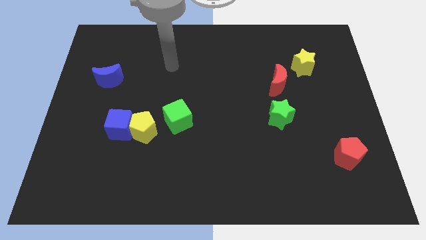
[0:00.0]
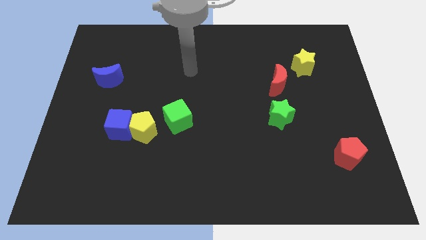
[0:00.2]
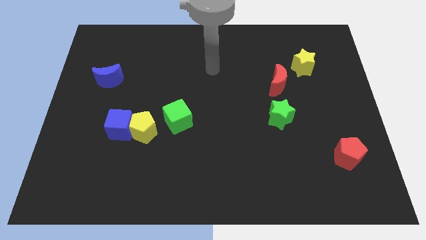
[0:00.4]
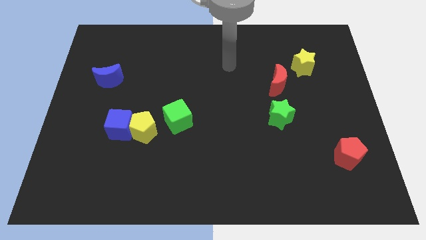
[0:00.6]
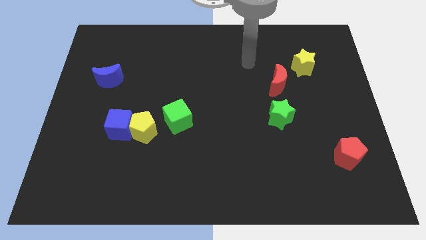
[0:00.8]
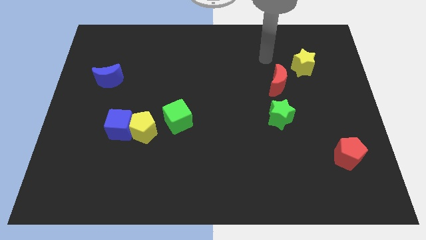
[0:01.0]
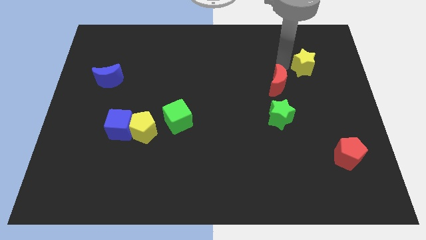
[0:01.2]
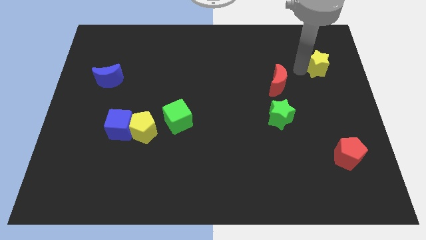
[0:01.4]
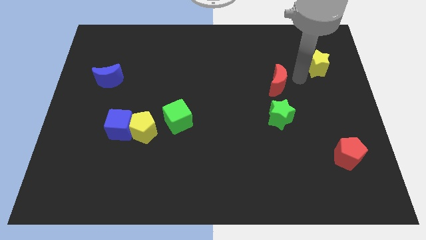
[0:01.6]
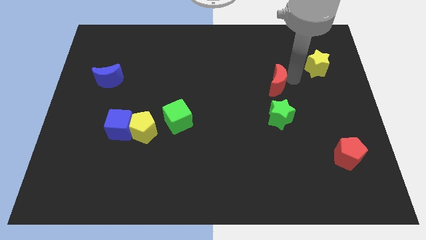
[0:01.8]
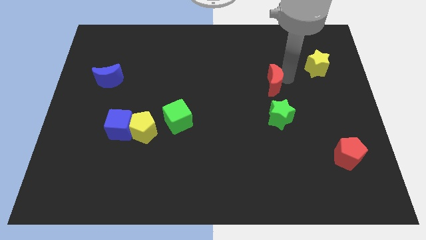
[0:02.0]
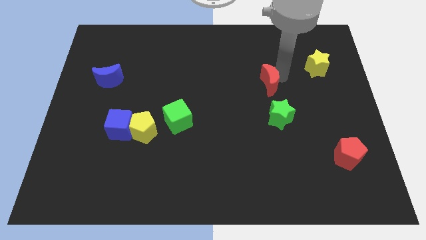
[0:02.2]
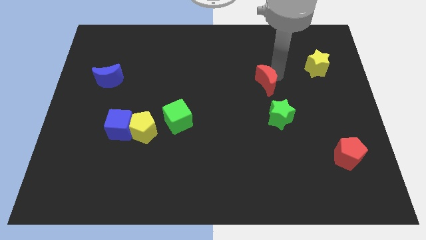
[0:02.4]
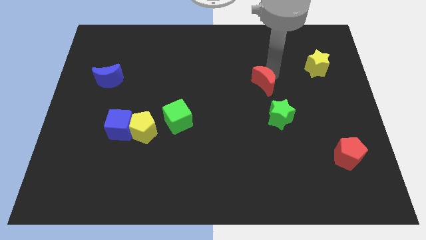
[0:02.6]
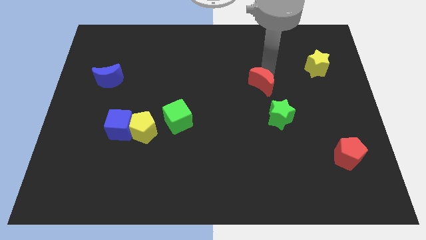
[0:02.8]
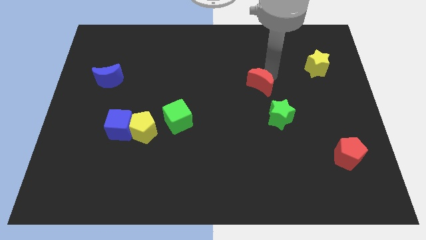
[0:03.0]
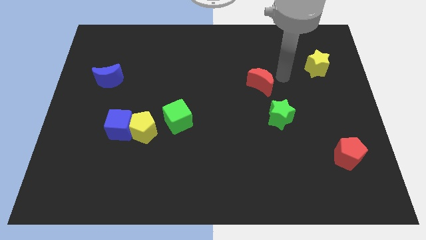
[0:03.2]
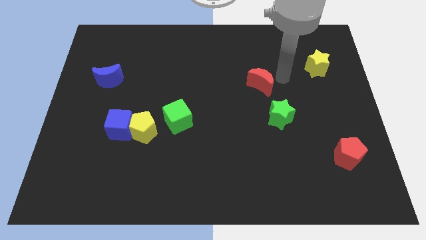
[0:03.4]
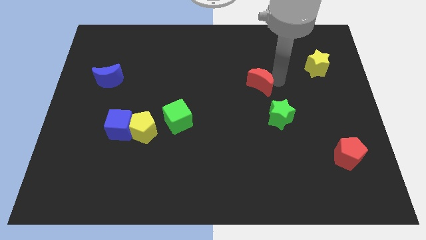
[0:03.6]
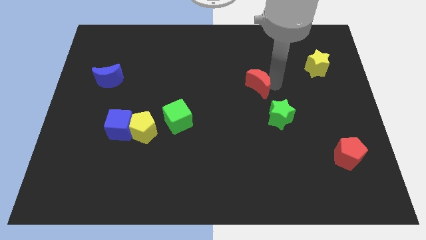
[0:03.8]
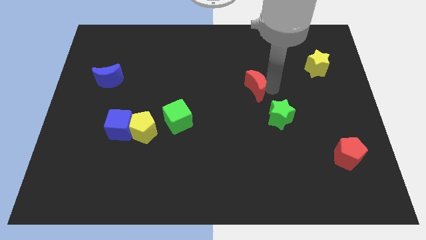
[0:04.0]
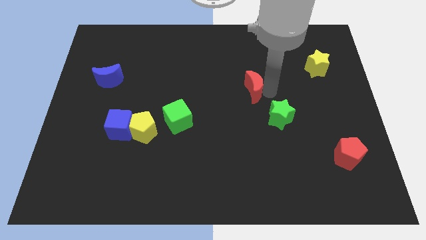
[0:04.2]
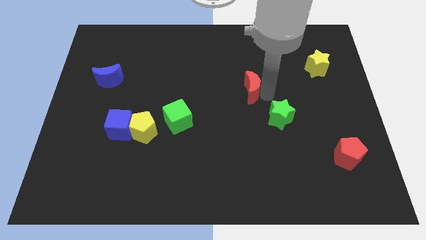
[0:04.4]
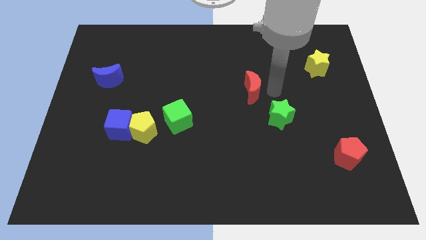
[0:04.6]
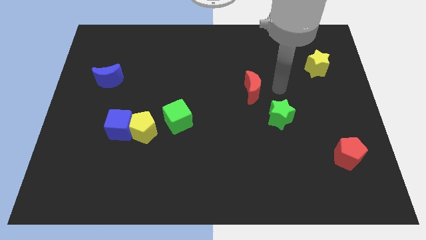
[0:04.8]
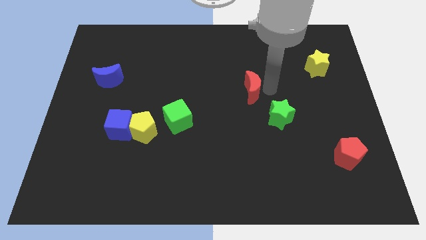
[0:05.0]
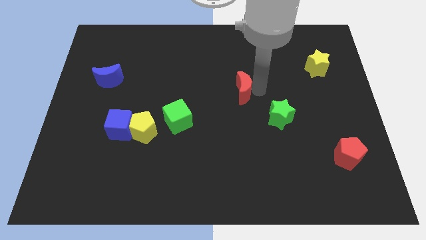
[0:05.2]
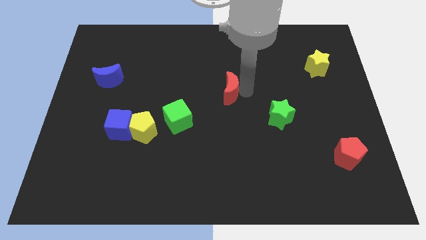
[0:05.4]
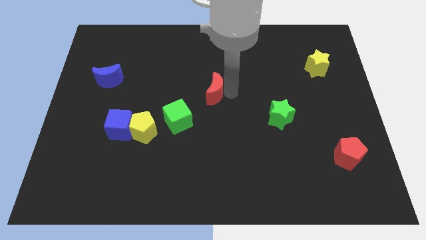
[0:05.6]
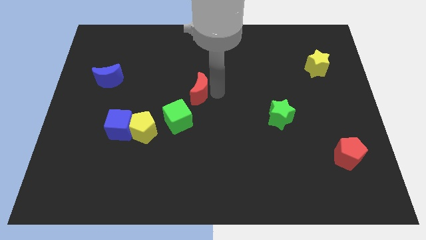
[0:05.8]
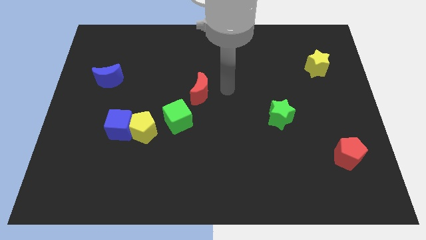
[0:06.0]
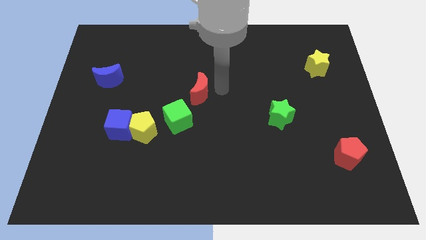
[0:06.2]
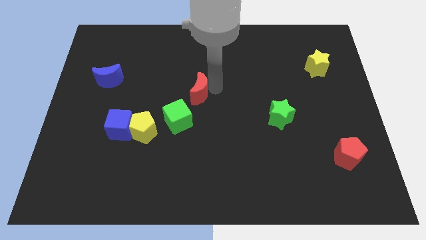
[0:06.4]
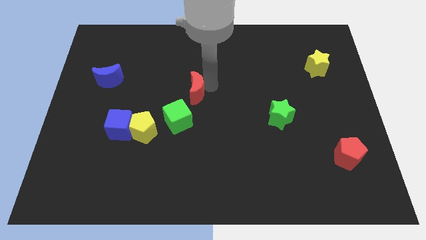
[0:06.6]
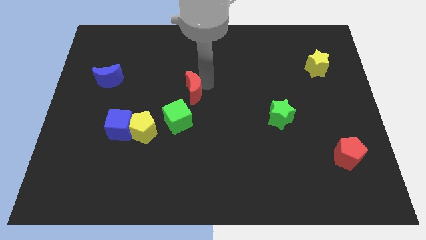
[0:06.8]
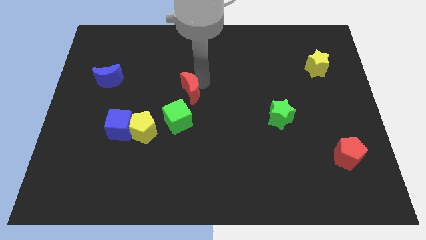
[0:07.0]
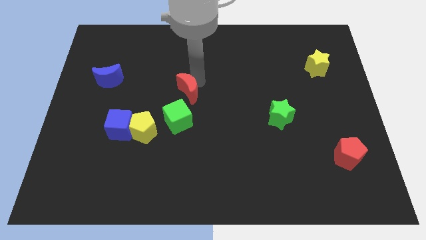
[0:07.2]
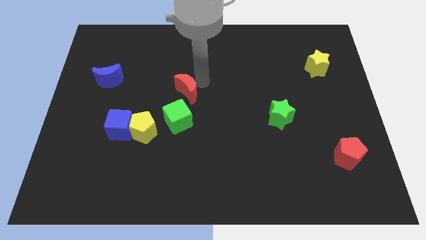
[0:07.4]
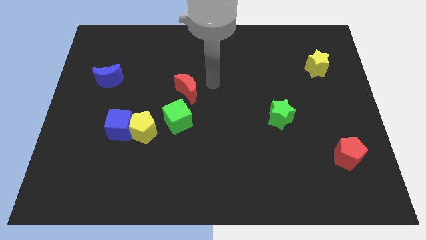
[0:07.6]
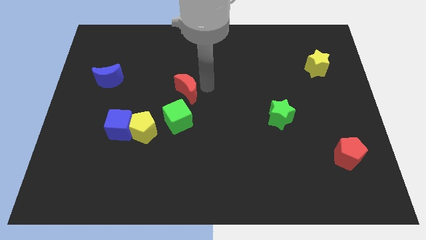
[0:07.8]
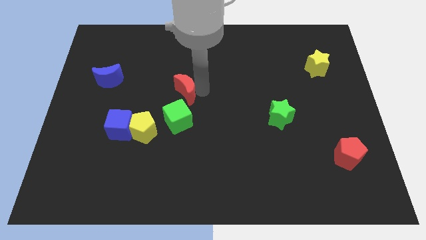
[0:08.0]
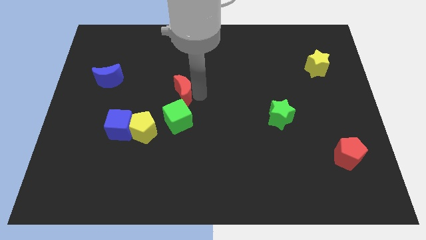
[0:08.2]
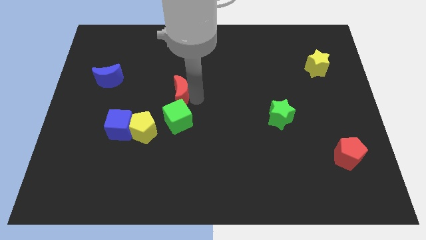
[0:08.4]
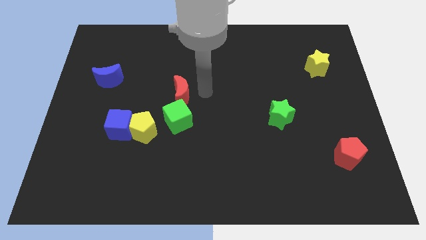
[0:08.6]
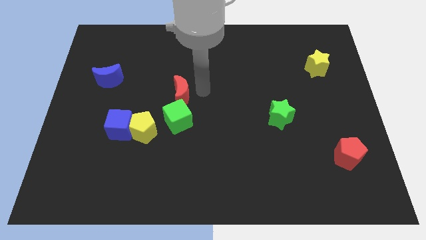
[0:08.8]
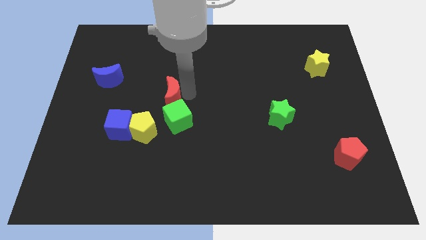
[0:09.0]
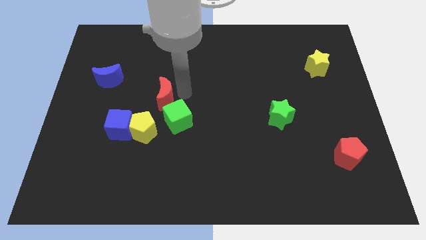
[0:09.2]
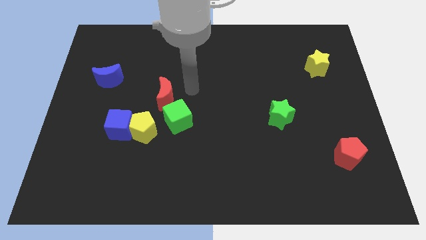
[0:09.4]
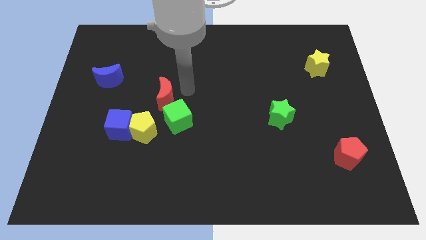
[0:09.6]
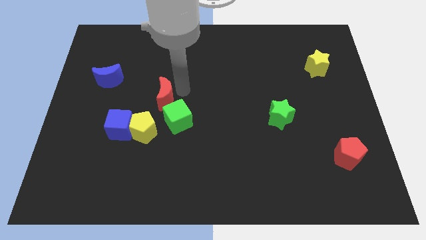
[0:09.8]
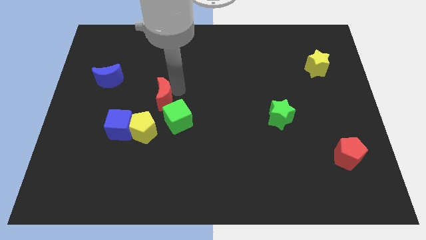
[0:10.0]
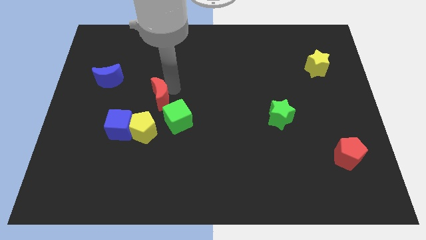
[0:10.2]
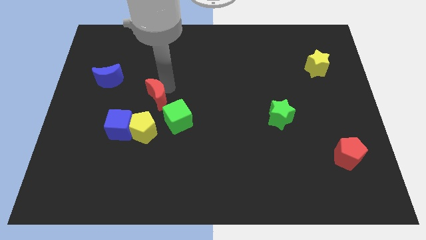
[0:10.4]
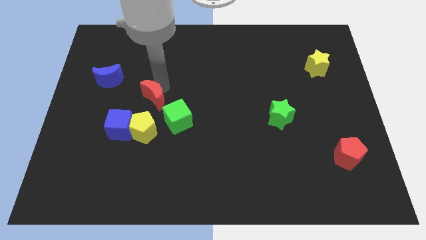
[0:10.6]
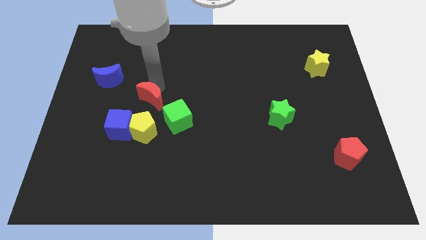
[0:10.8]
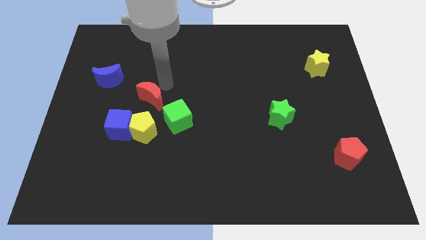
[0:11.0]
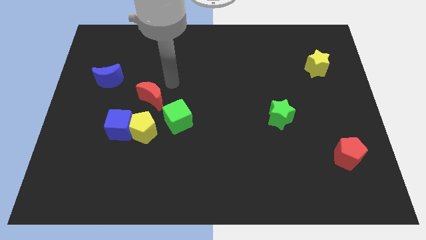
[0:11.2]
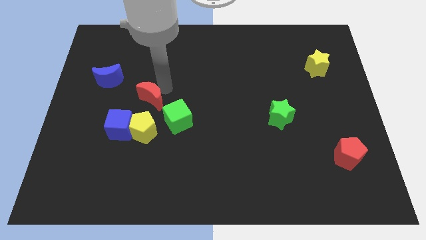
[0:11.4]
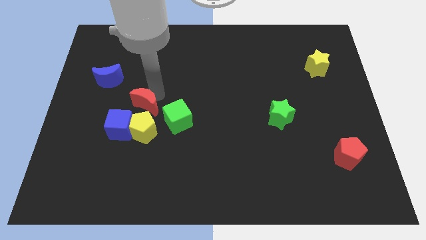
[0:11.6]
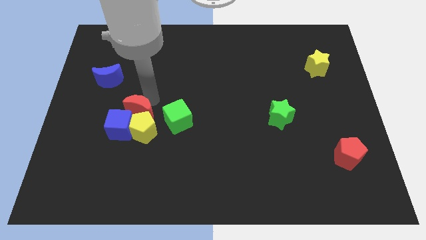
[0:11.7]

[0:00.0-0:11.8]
push the red moon towards the blue cube
